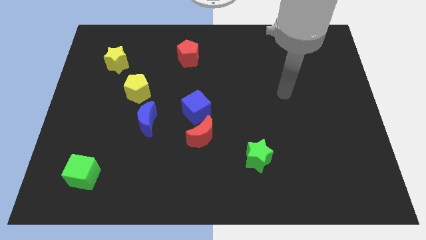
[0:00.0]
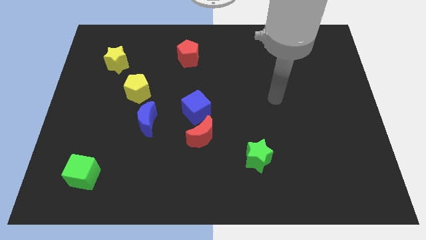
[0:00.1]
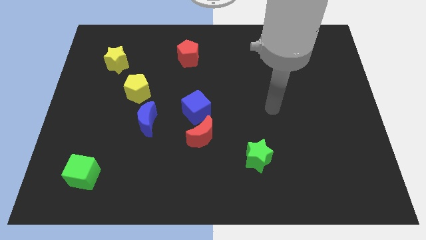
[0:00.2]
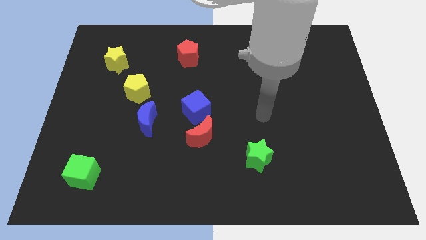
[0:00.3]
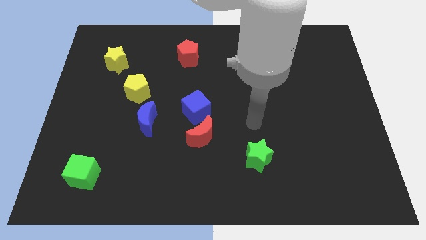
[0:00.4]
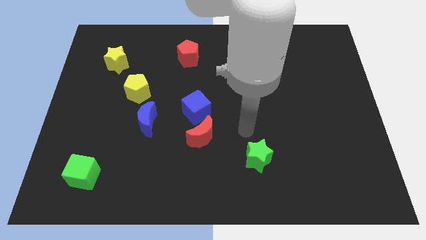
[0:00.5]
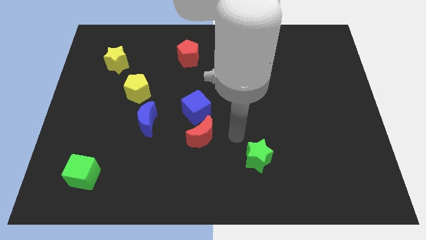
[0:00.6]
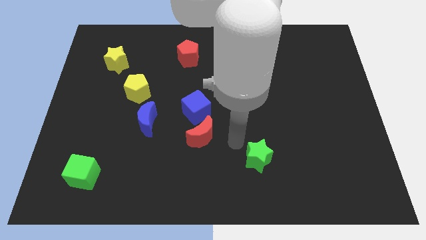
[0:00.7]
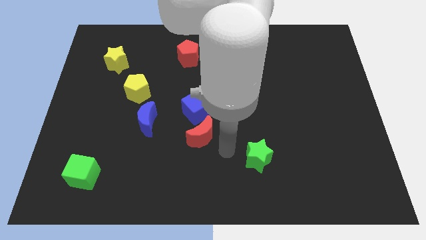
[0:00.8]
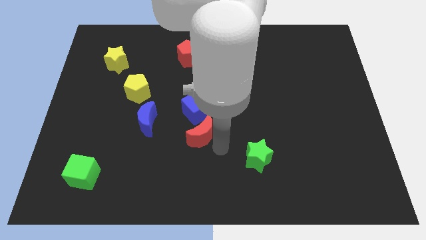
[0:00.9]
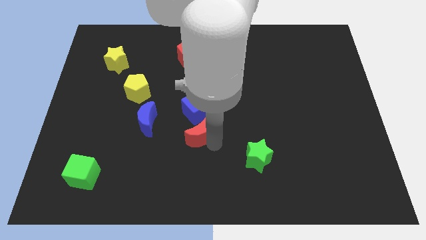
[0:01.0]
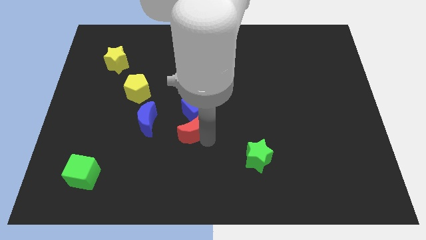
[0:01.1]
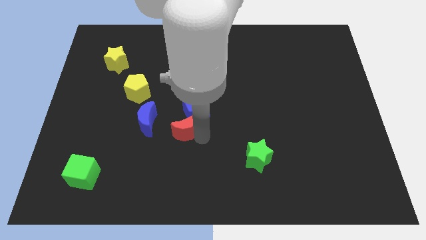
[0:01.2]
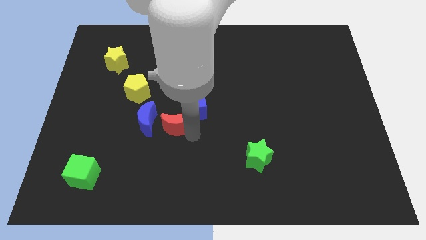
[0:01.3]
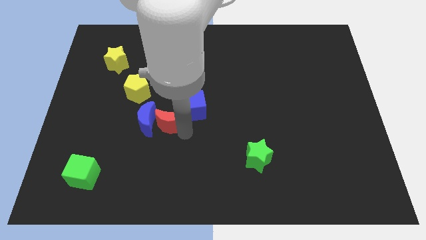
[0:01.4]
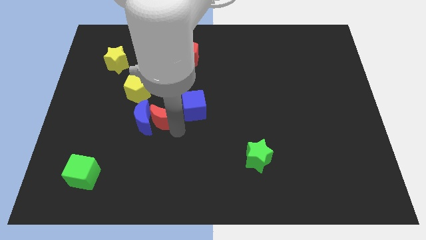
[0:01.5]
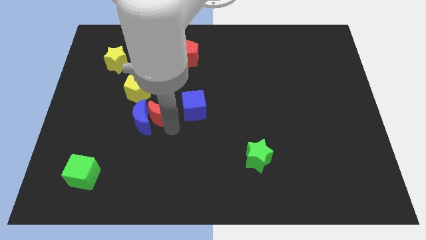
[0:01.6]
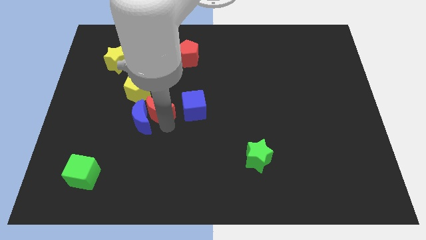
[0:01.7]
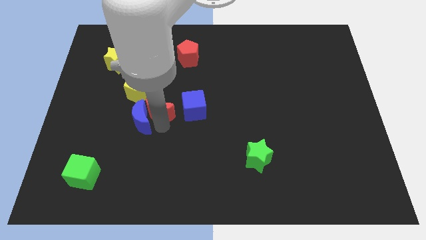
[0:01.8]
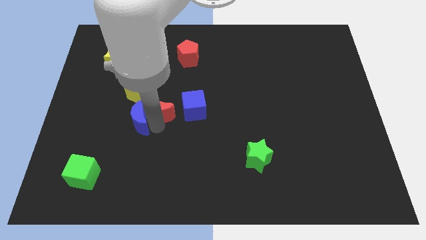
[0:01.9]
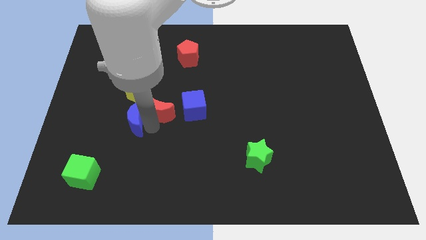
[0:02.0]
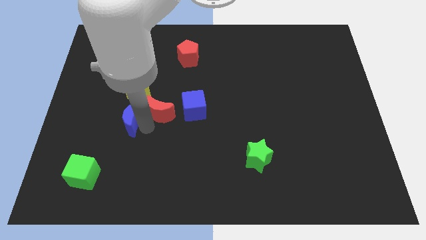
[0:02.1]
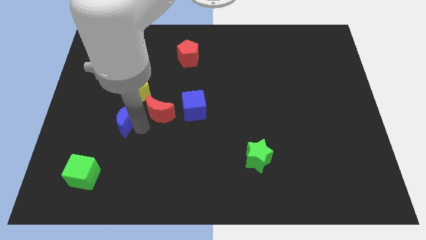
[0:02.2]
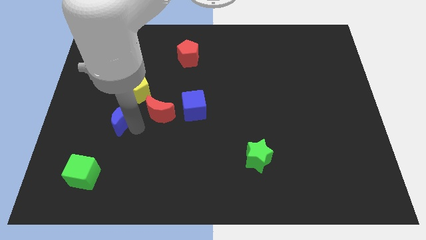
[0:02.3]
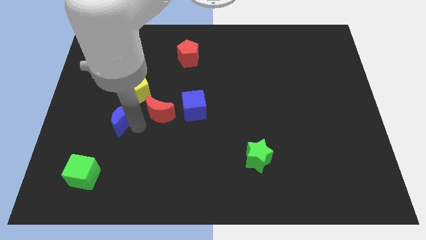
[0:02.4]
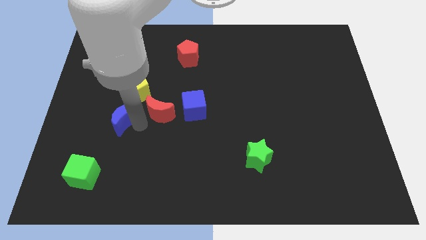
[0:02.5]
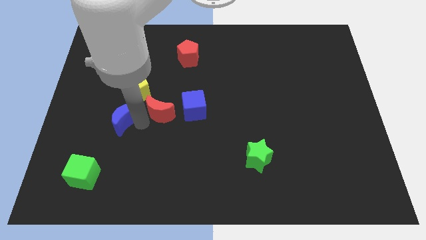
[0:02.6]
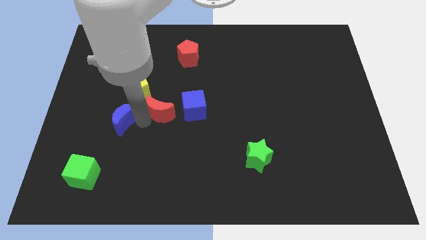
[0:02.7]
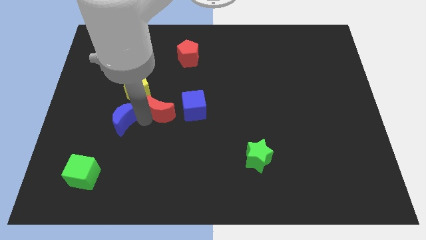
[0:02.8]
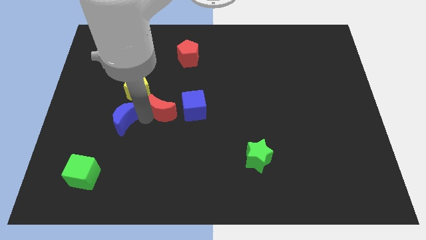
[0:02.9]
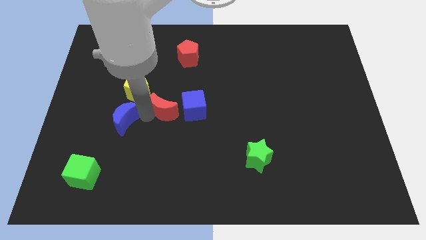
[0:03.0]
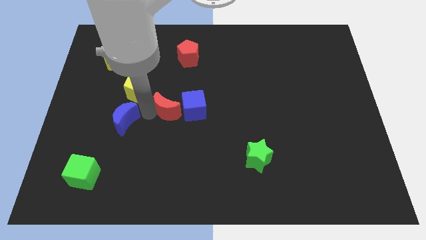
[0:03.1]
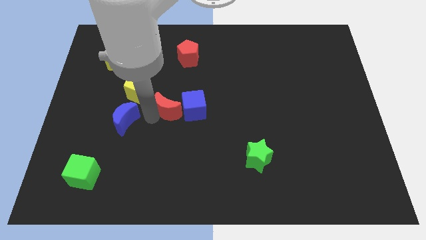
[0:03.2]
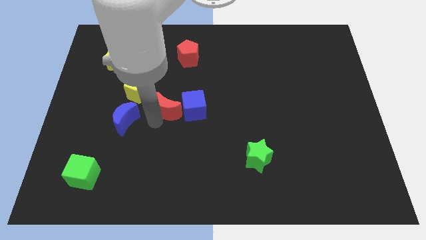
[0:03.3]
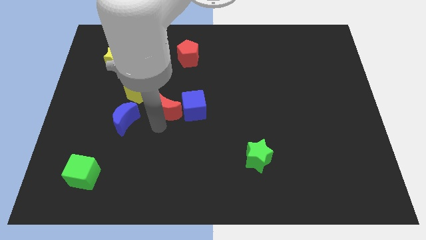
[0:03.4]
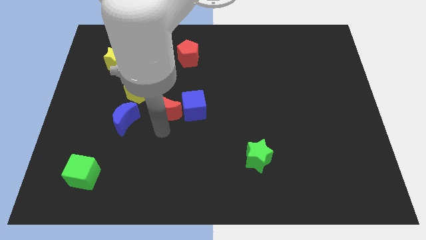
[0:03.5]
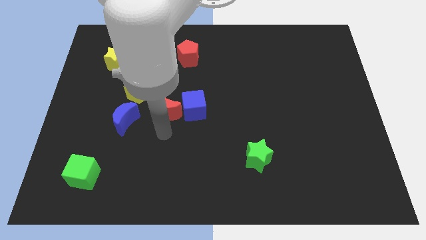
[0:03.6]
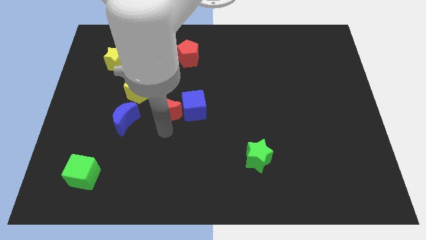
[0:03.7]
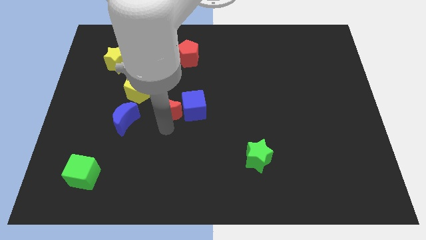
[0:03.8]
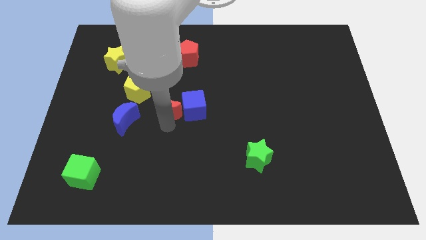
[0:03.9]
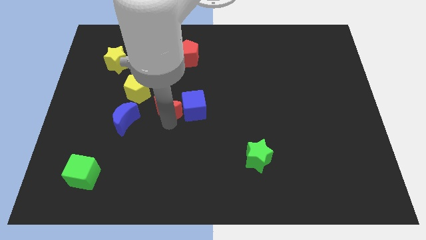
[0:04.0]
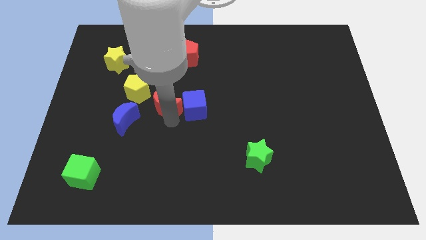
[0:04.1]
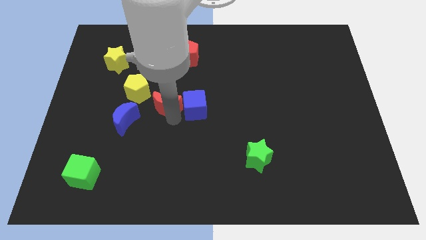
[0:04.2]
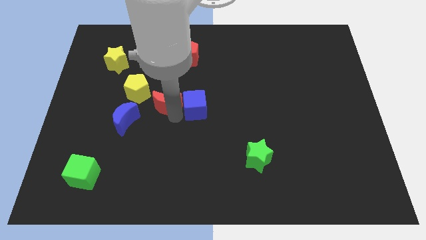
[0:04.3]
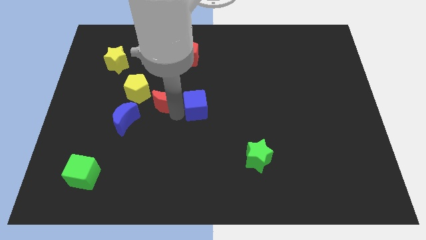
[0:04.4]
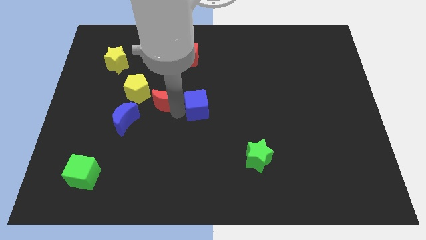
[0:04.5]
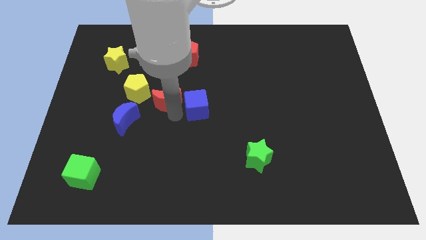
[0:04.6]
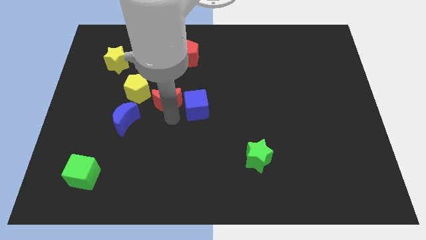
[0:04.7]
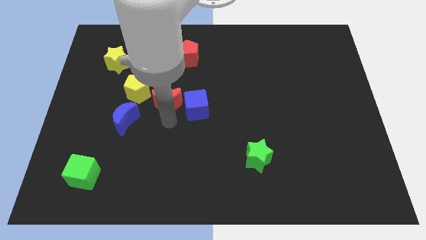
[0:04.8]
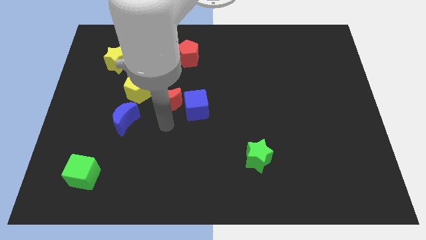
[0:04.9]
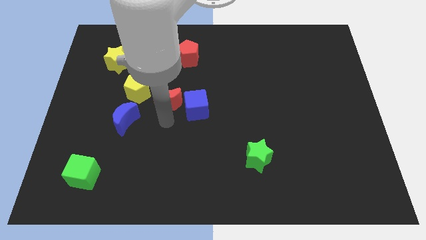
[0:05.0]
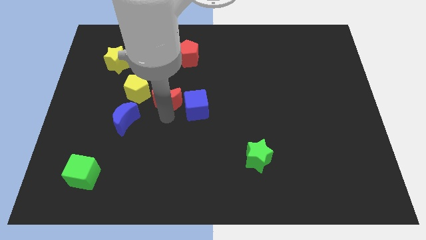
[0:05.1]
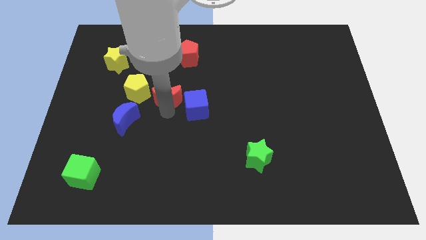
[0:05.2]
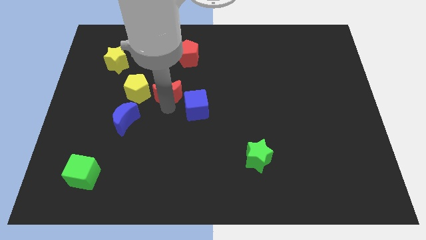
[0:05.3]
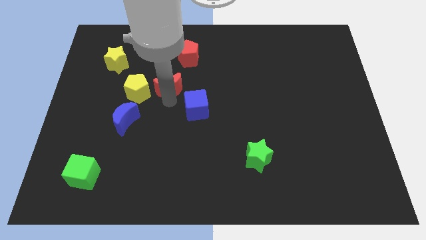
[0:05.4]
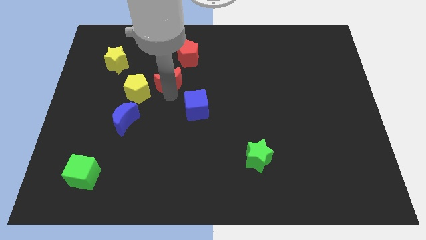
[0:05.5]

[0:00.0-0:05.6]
push the red moon diagonally down and to the left of the red pentagon
